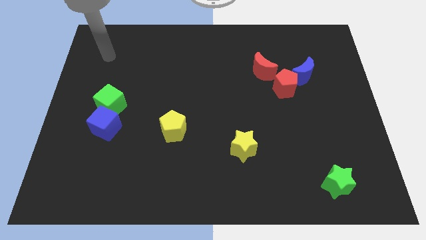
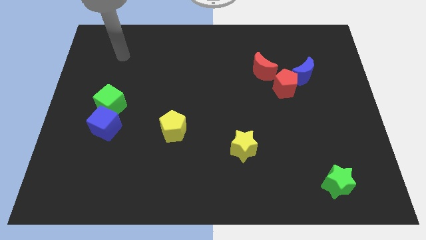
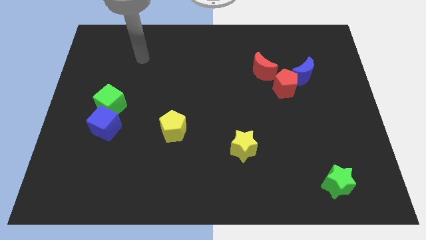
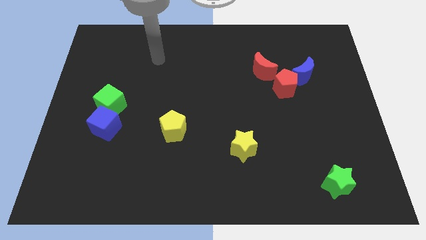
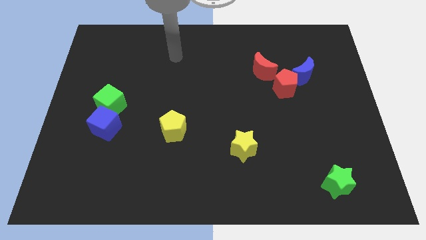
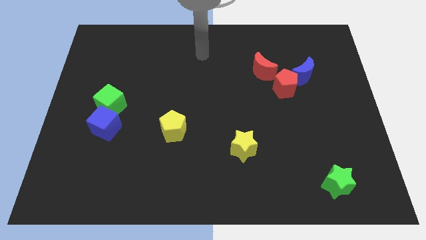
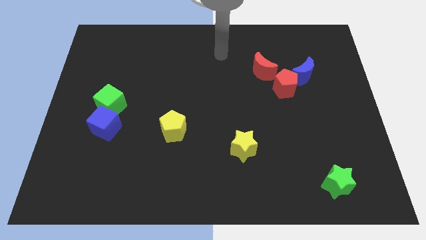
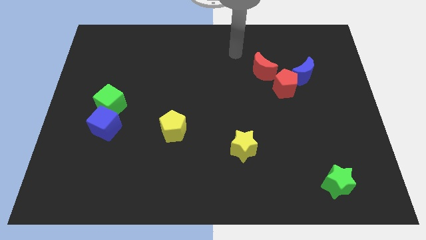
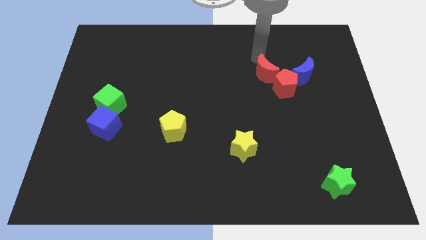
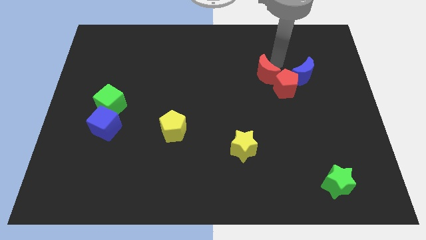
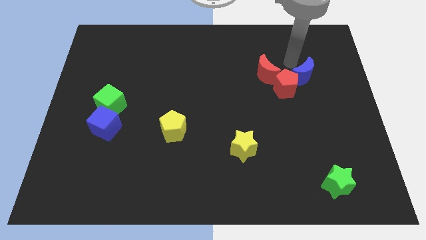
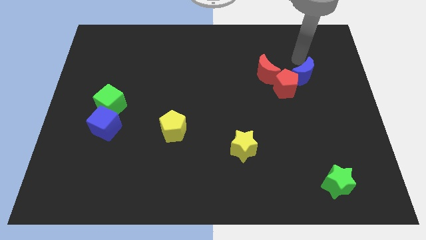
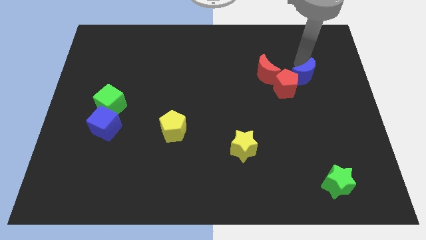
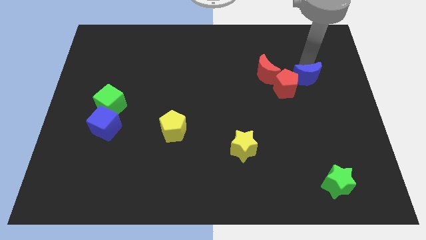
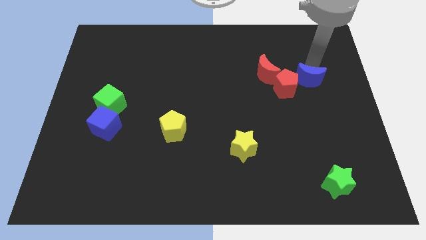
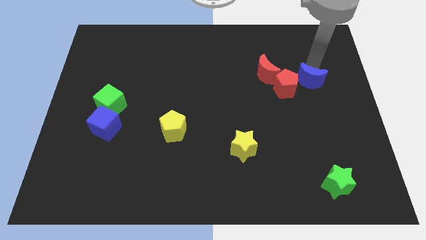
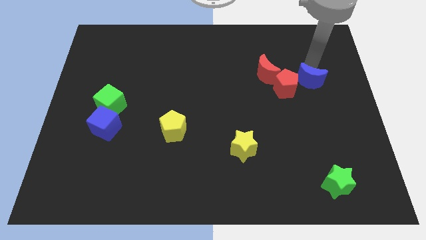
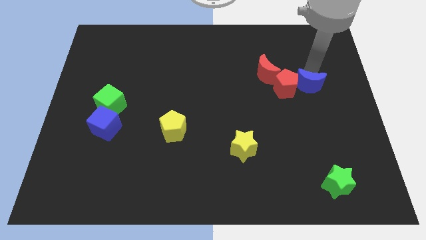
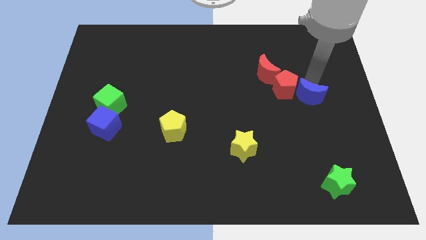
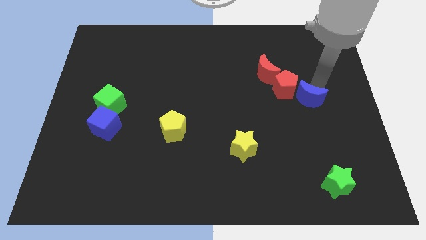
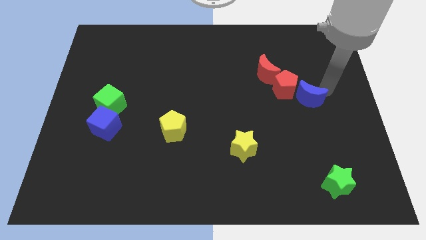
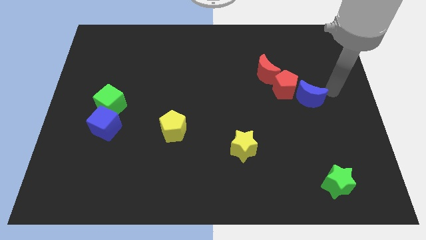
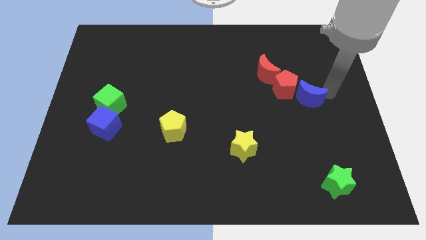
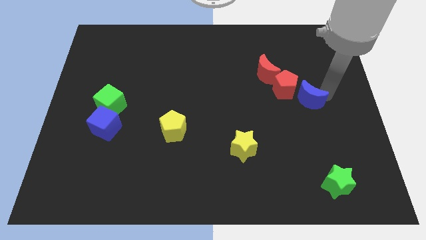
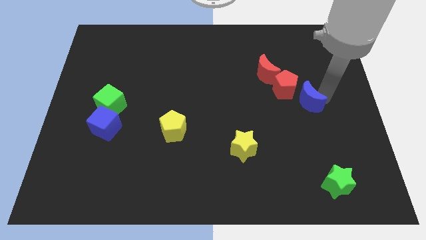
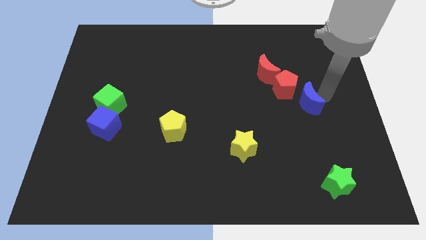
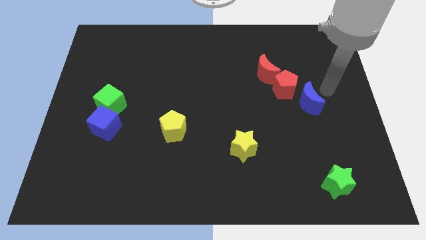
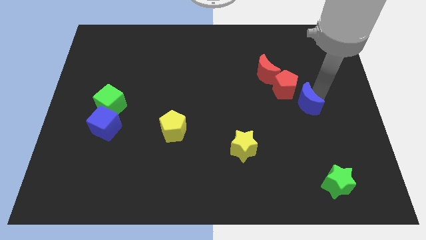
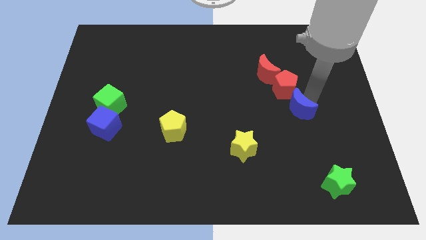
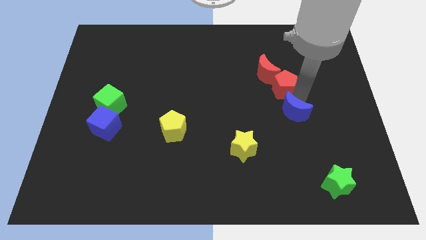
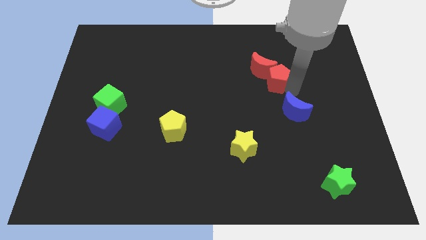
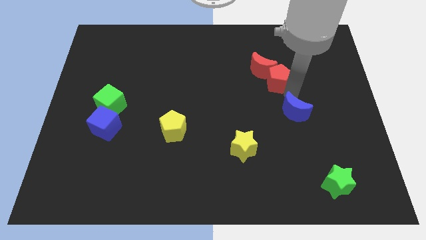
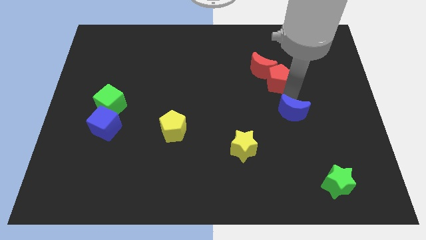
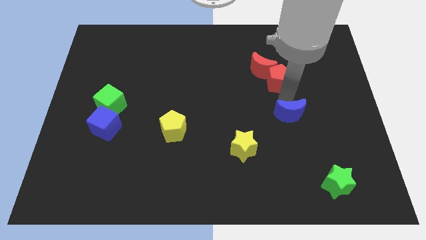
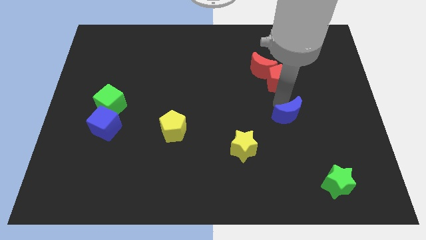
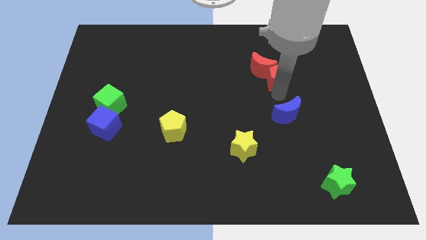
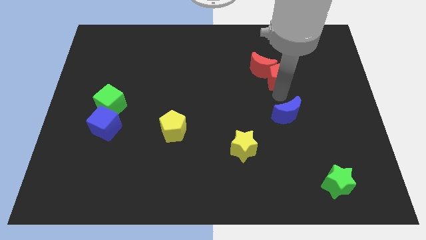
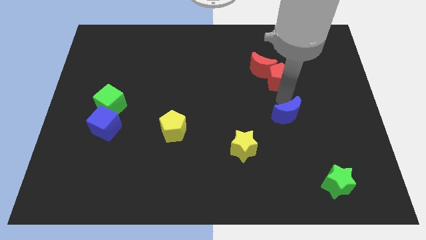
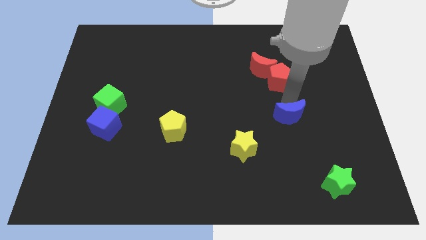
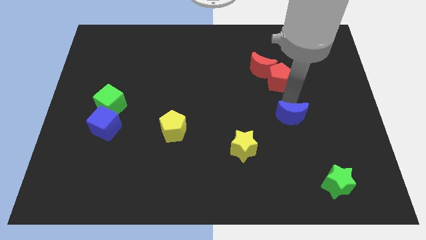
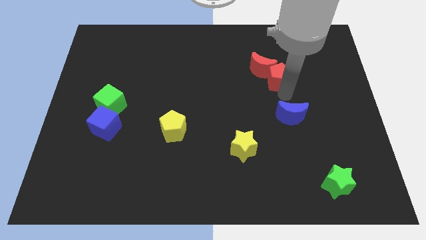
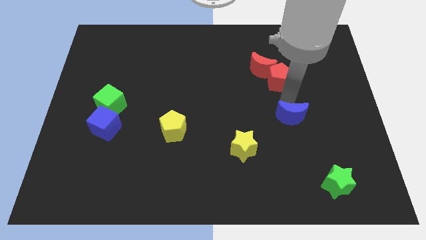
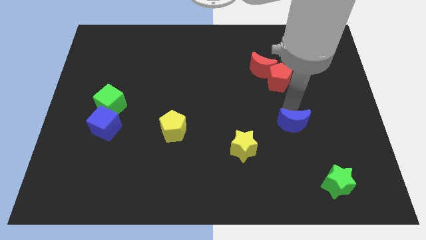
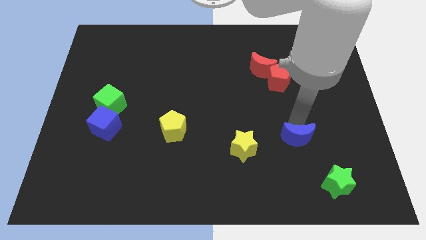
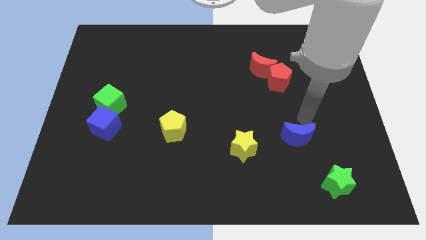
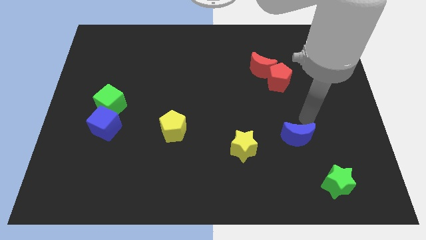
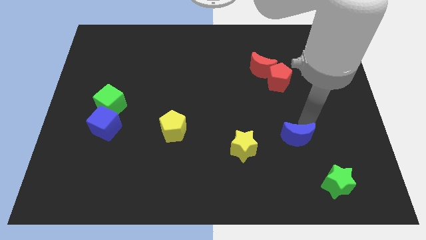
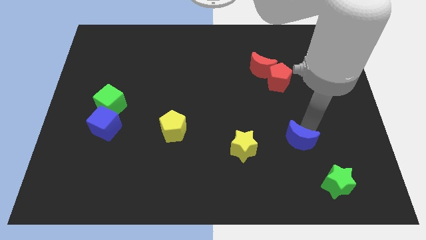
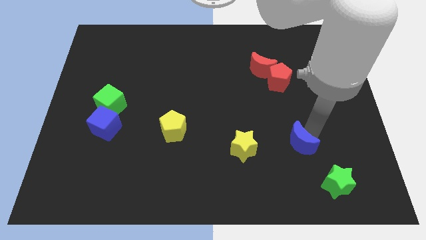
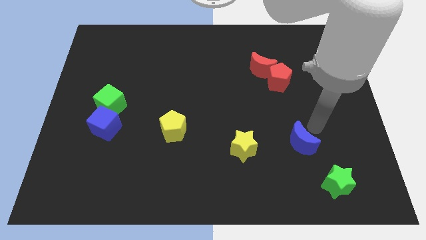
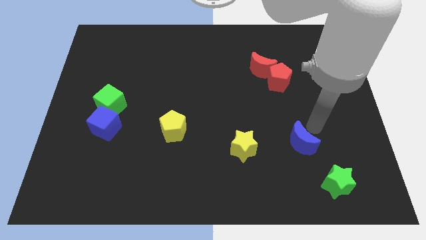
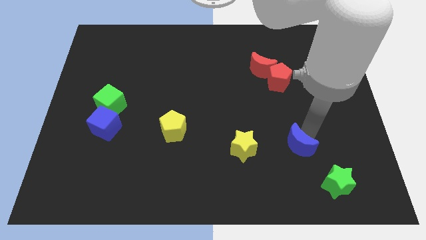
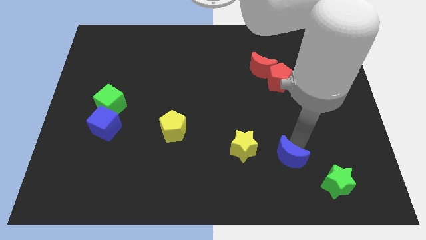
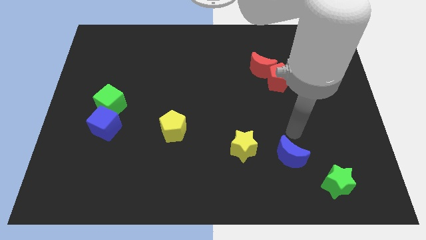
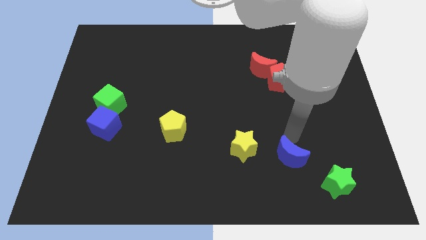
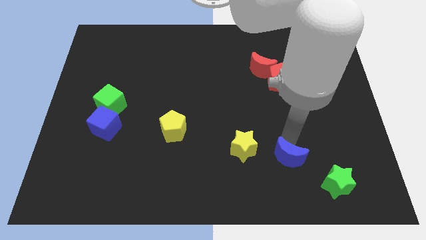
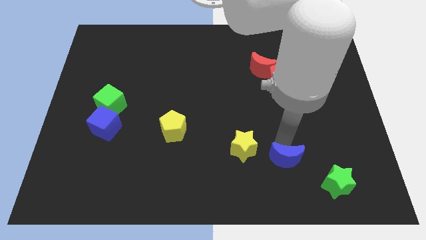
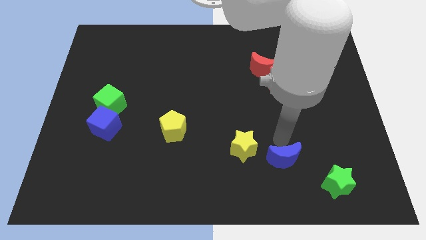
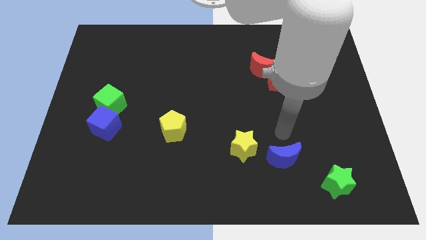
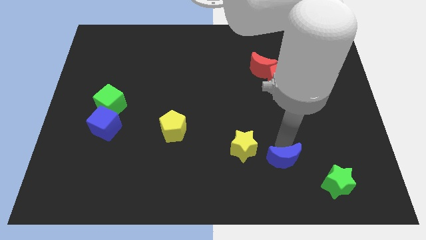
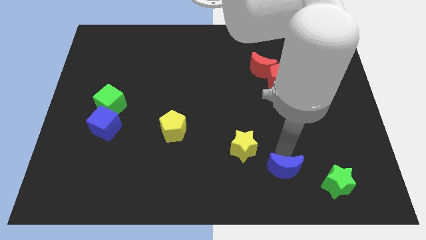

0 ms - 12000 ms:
move the blue moon to the left of the green star

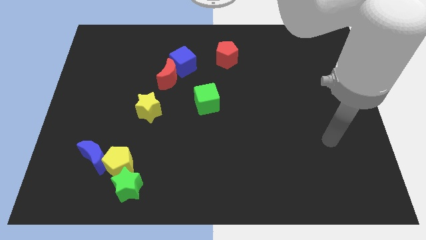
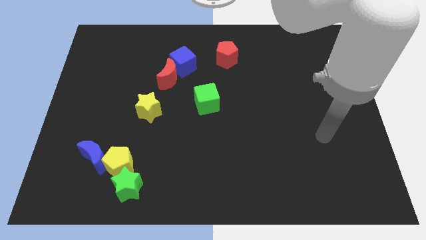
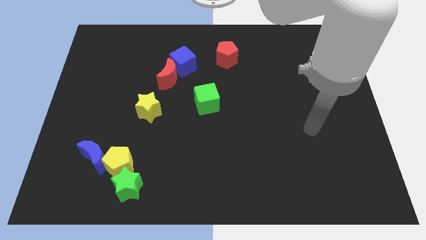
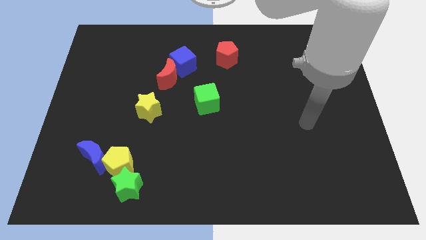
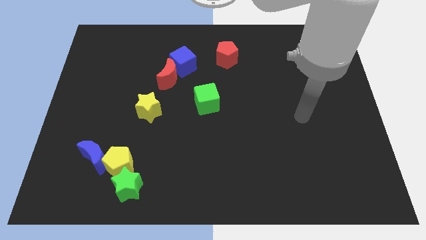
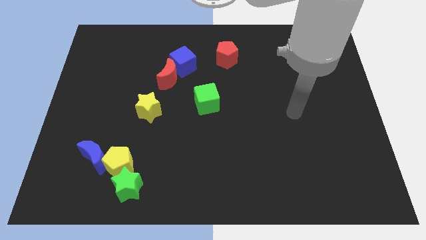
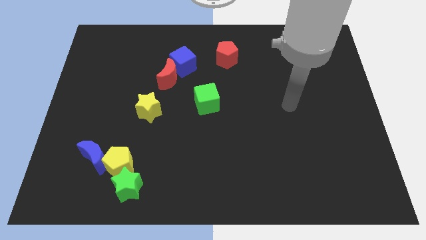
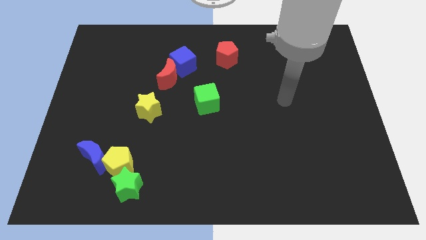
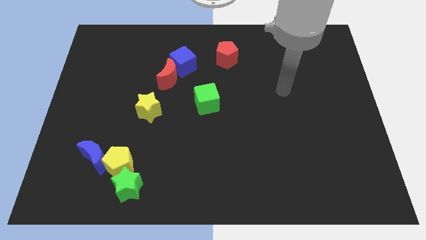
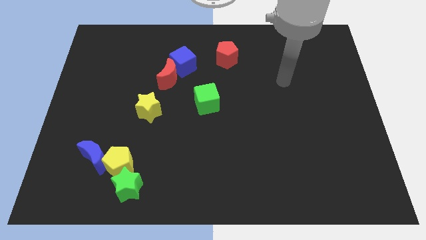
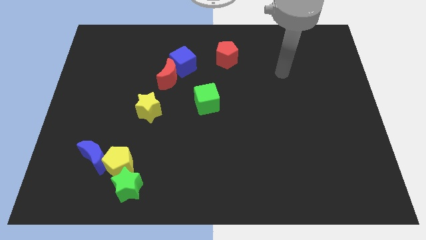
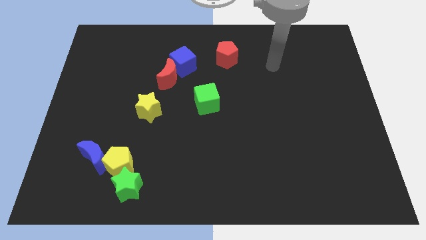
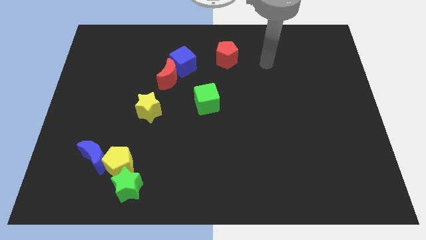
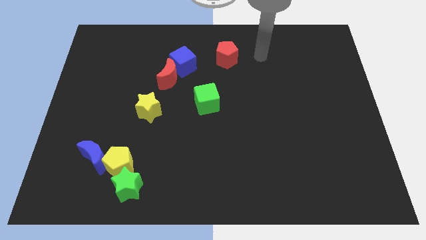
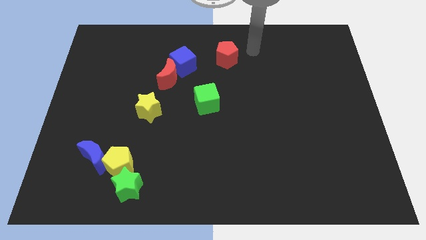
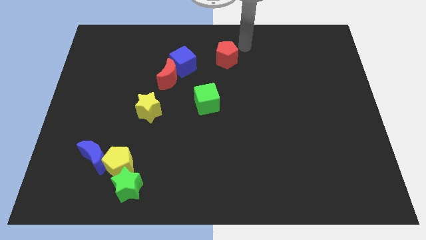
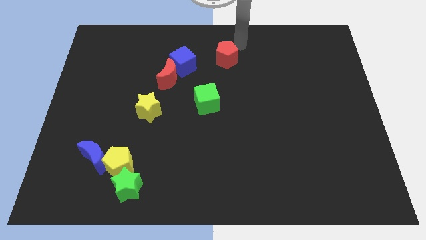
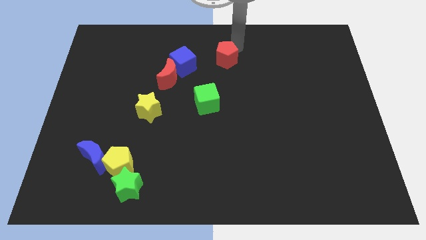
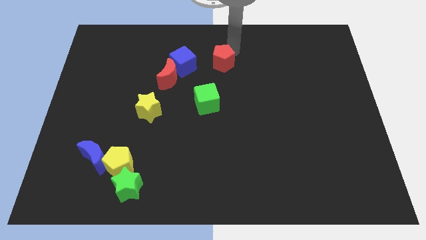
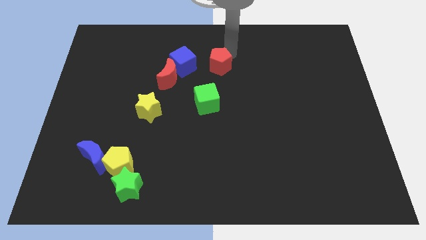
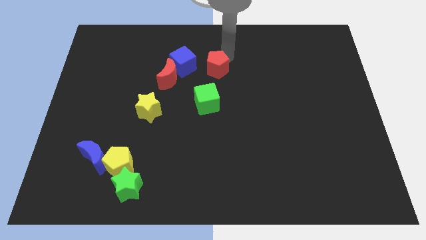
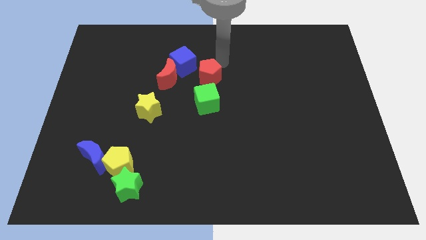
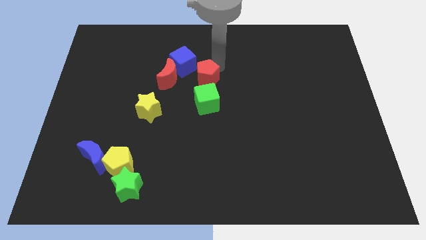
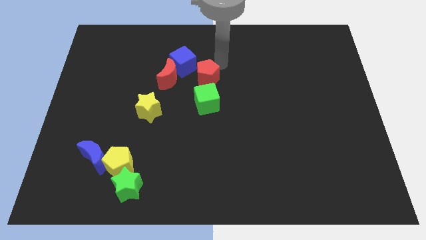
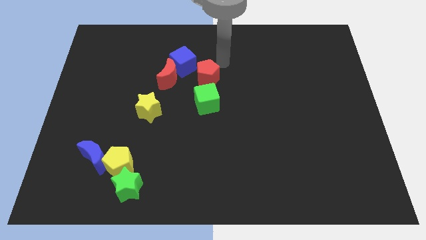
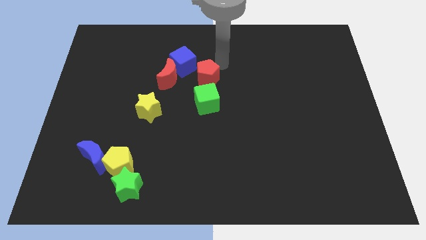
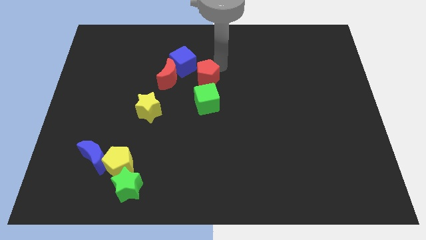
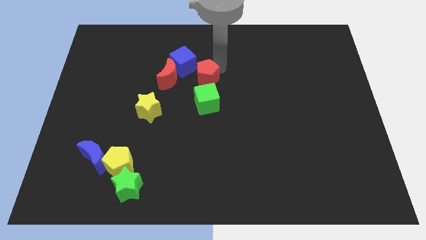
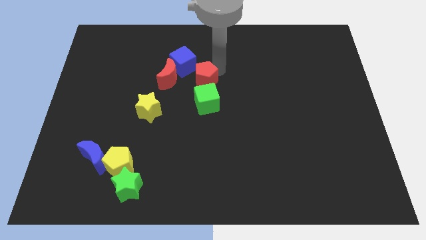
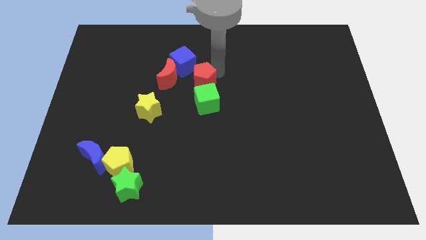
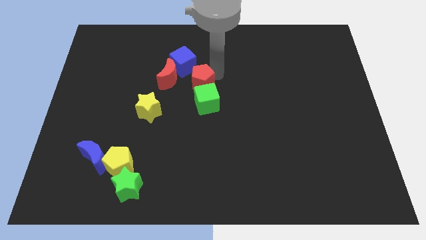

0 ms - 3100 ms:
push the red pentagon diagonally down and to the right of the red moon
